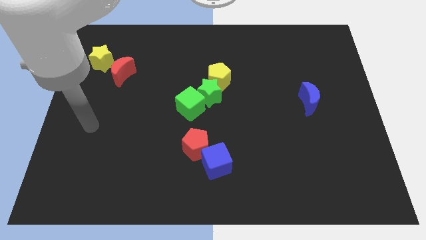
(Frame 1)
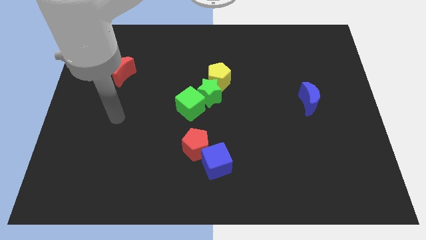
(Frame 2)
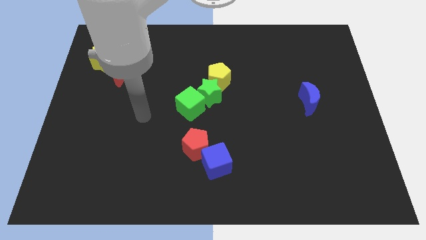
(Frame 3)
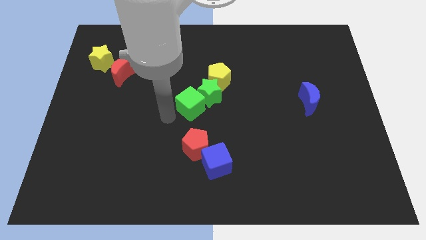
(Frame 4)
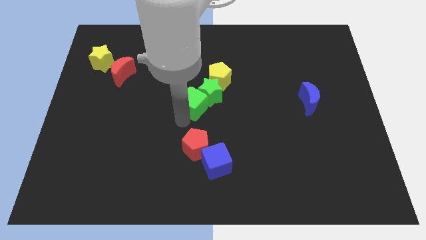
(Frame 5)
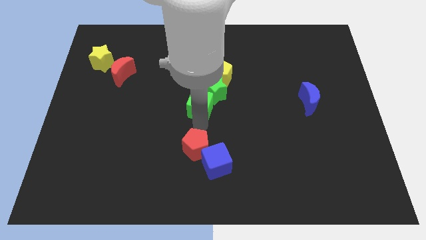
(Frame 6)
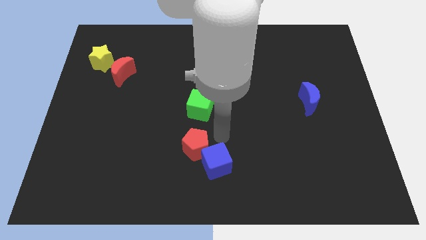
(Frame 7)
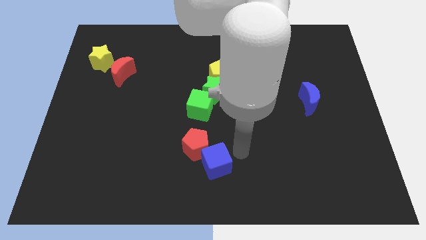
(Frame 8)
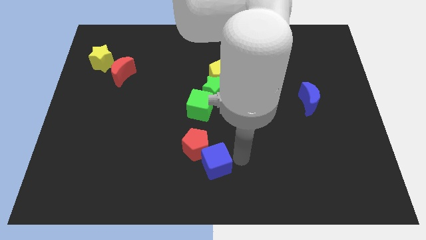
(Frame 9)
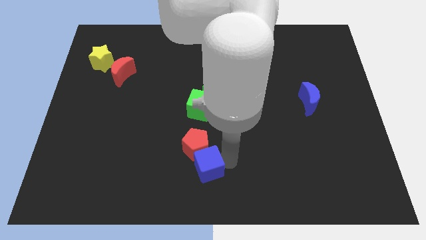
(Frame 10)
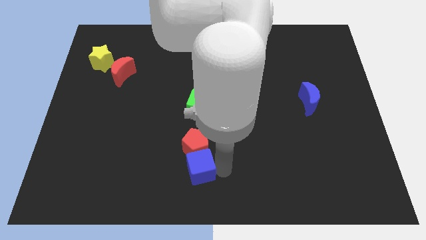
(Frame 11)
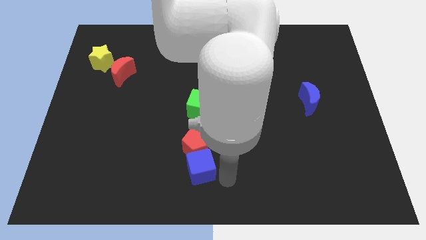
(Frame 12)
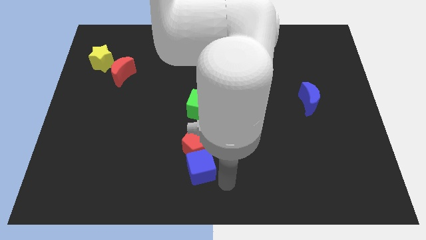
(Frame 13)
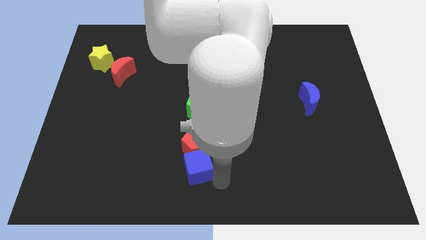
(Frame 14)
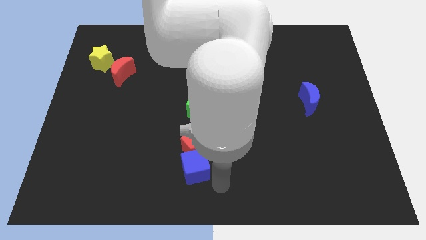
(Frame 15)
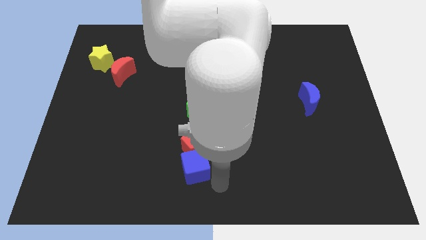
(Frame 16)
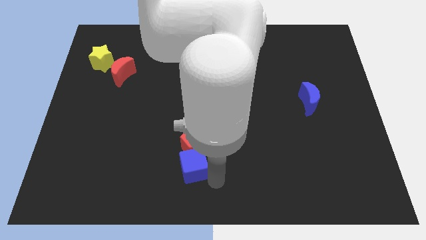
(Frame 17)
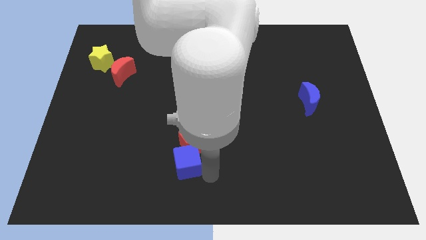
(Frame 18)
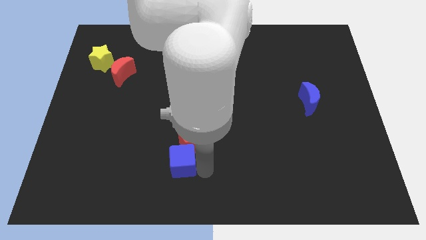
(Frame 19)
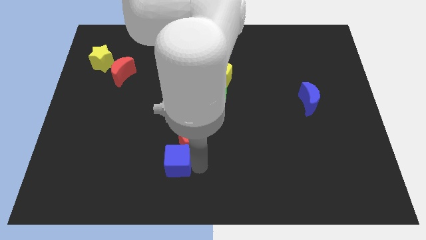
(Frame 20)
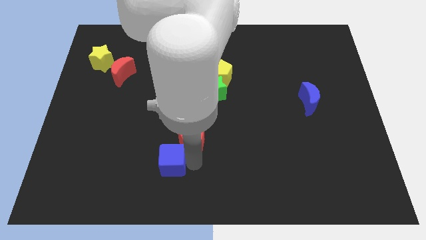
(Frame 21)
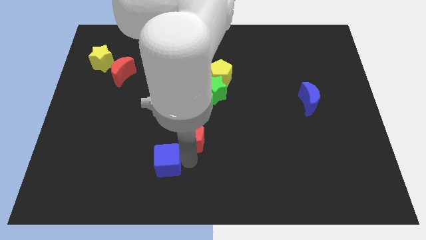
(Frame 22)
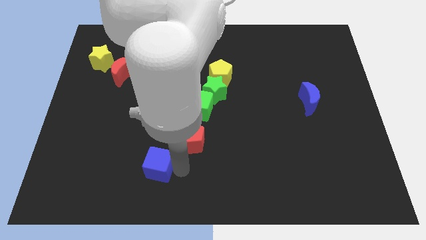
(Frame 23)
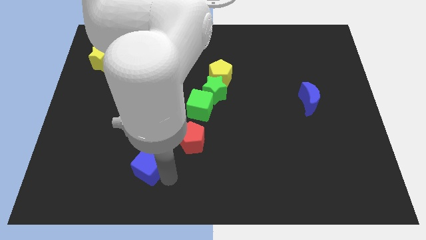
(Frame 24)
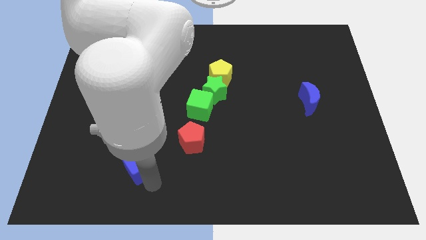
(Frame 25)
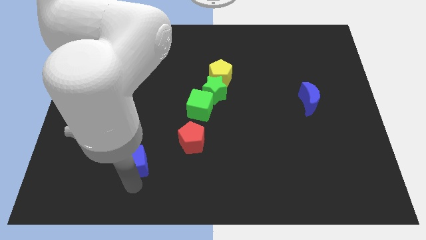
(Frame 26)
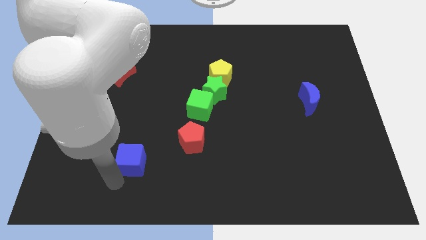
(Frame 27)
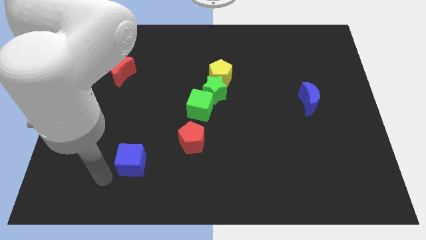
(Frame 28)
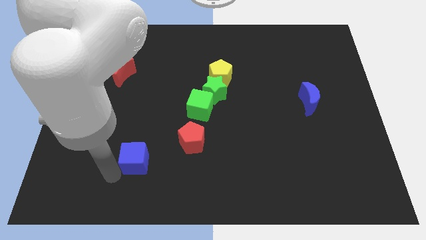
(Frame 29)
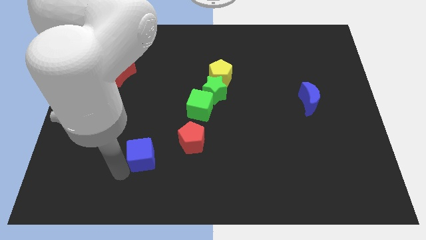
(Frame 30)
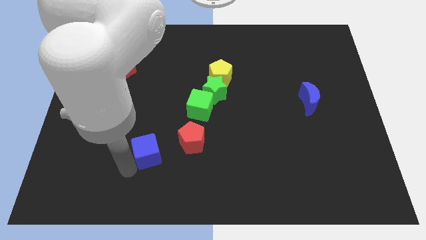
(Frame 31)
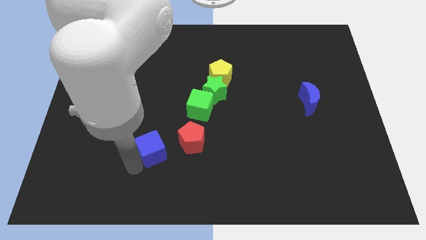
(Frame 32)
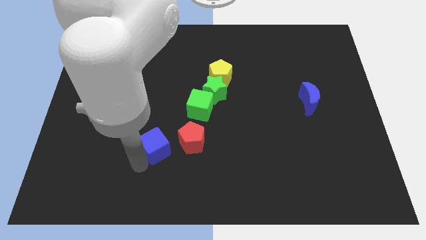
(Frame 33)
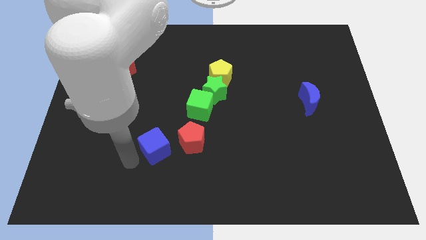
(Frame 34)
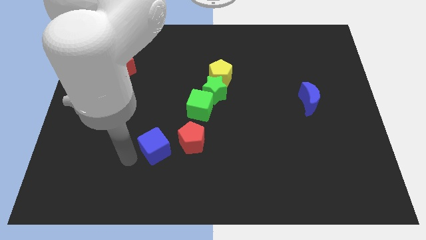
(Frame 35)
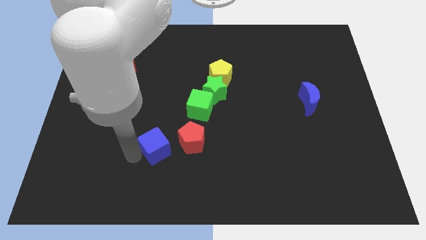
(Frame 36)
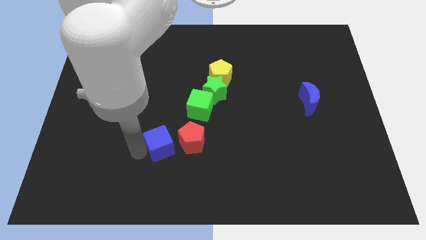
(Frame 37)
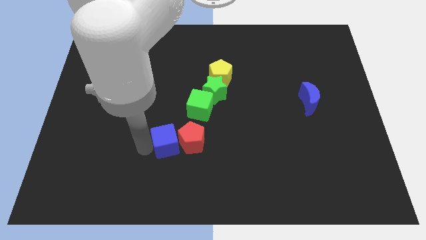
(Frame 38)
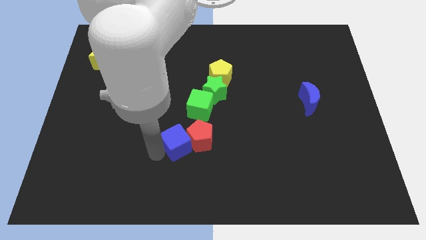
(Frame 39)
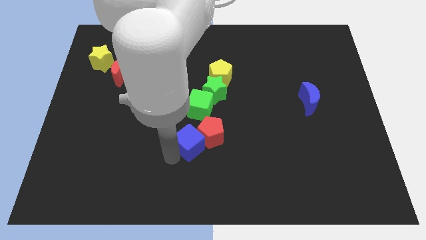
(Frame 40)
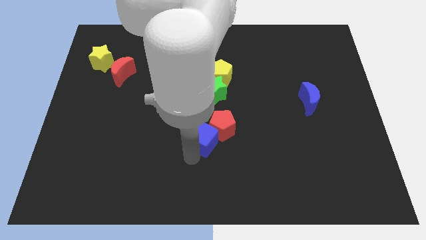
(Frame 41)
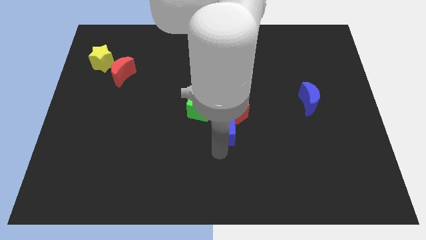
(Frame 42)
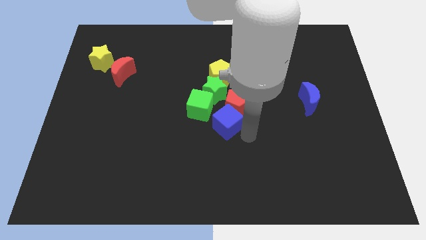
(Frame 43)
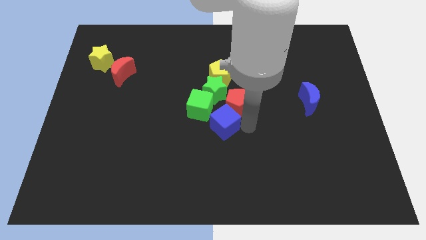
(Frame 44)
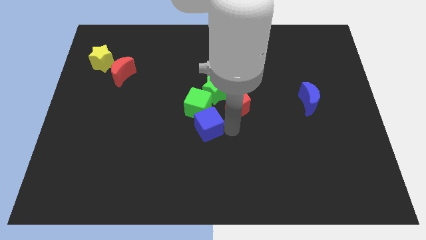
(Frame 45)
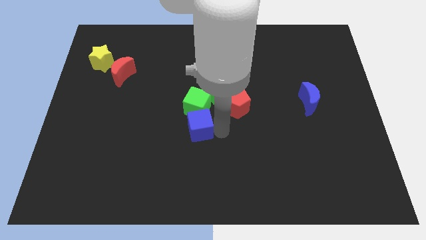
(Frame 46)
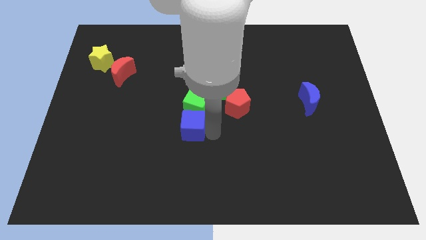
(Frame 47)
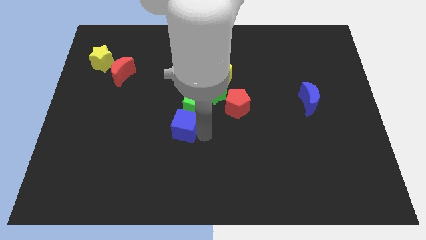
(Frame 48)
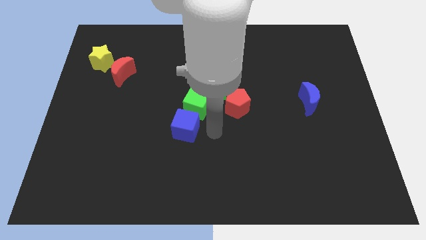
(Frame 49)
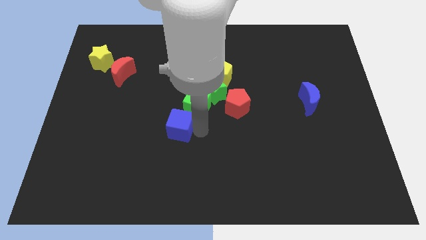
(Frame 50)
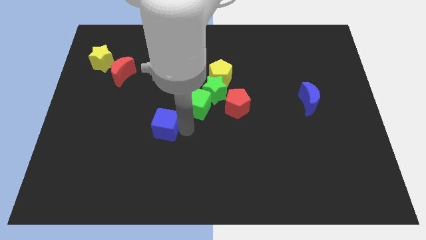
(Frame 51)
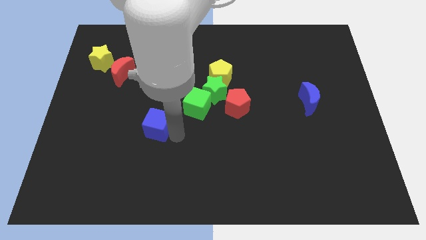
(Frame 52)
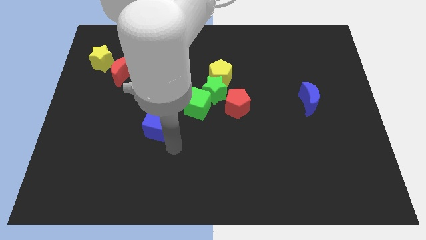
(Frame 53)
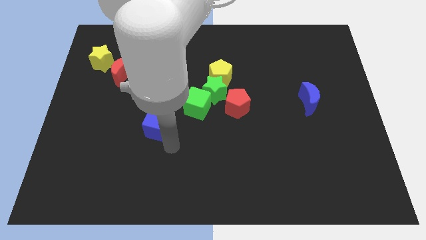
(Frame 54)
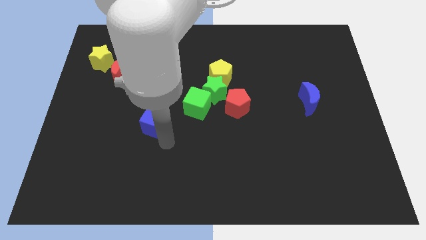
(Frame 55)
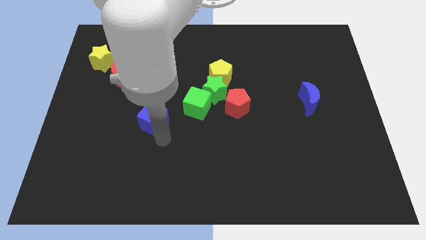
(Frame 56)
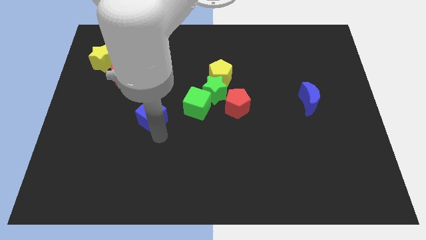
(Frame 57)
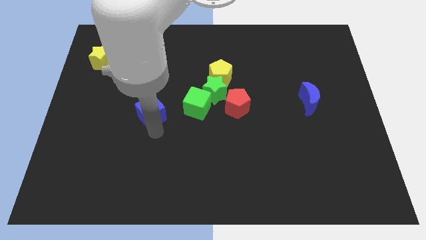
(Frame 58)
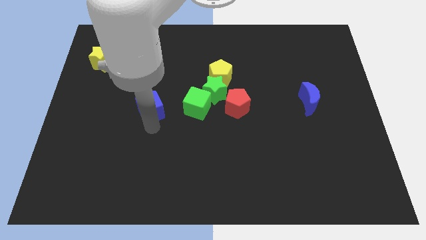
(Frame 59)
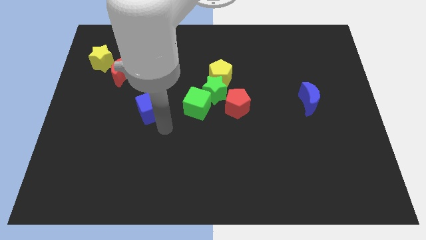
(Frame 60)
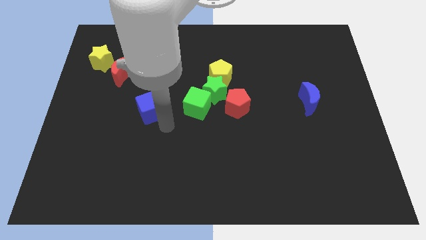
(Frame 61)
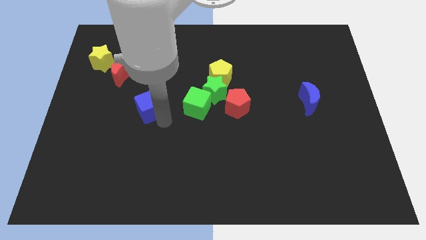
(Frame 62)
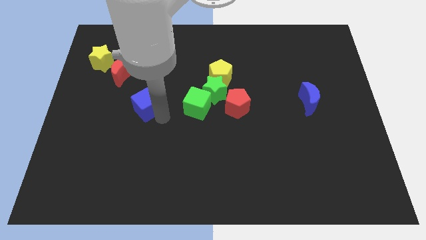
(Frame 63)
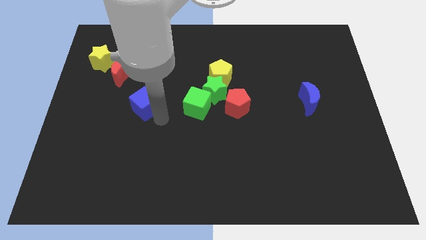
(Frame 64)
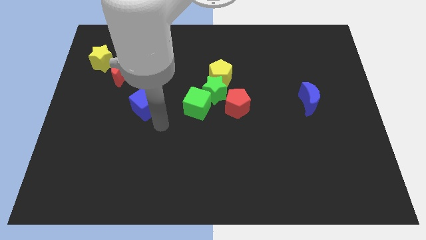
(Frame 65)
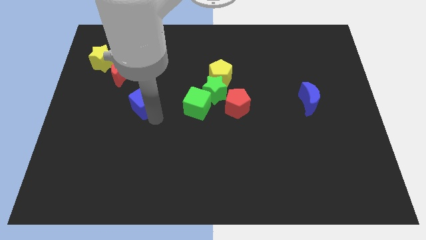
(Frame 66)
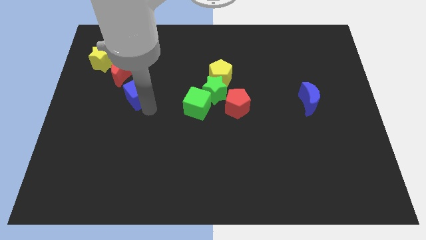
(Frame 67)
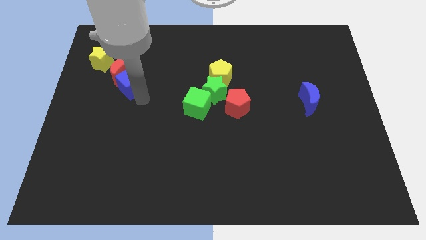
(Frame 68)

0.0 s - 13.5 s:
push the blue cube to the red moon
